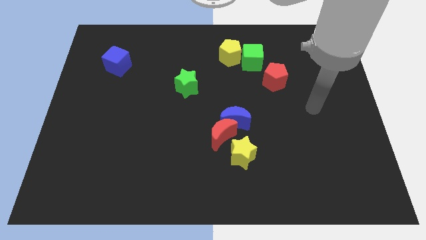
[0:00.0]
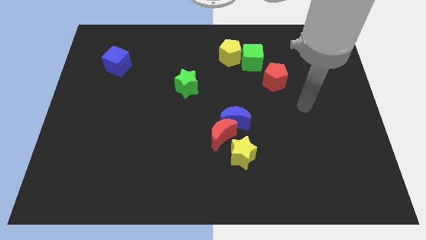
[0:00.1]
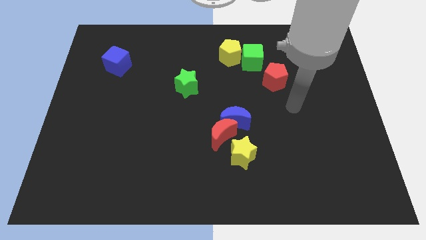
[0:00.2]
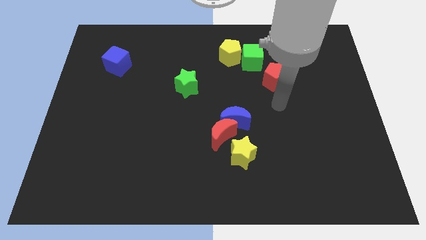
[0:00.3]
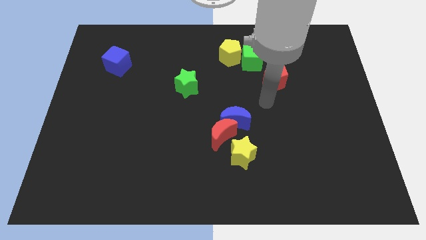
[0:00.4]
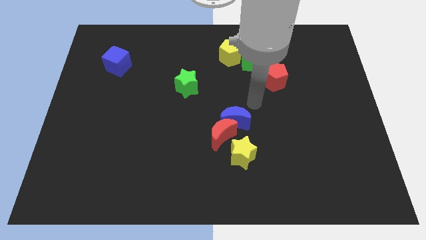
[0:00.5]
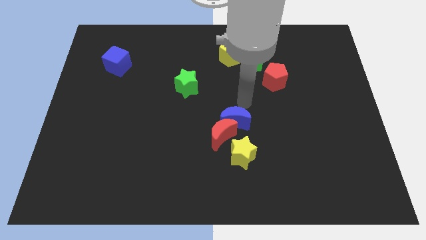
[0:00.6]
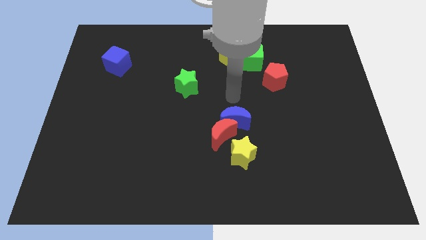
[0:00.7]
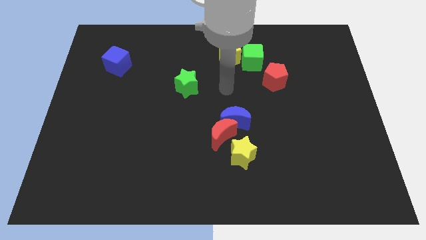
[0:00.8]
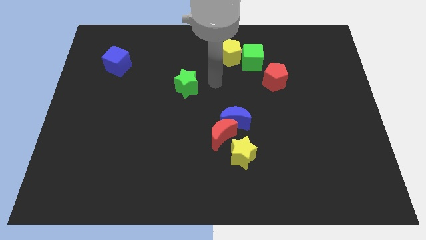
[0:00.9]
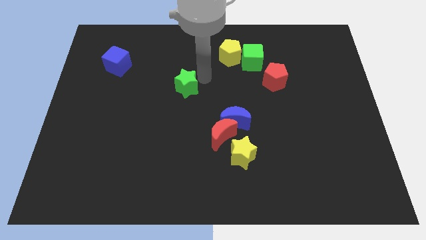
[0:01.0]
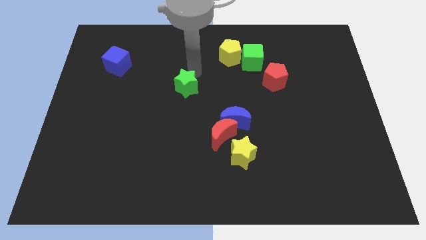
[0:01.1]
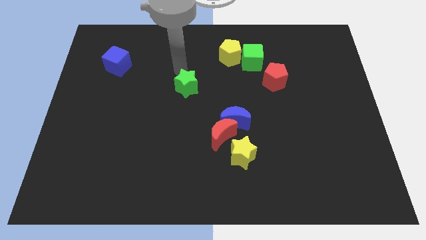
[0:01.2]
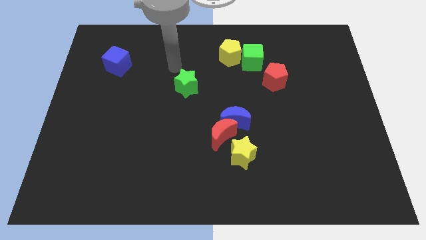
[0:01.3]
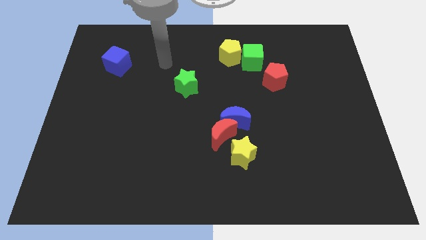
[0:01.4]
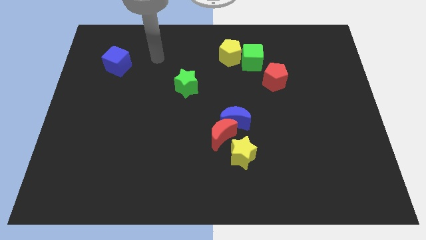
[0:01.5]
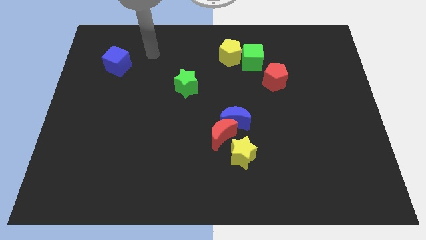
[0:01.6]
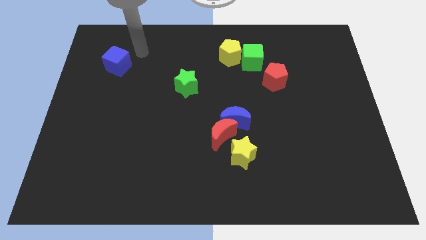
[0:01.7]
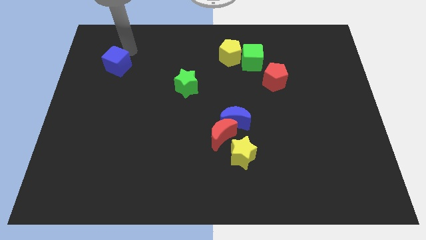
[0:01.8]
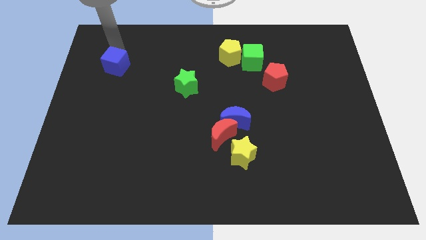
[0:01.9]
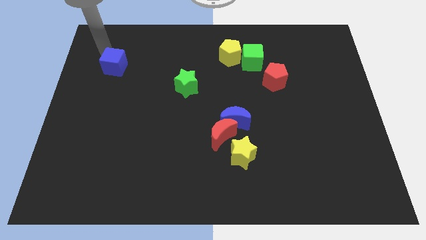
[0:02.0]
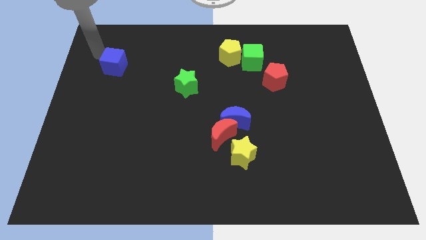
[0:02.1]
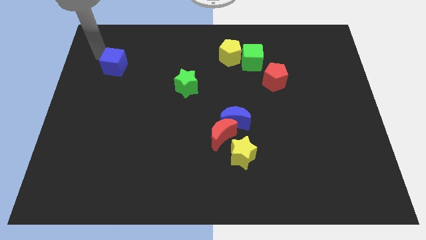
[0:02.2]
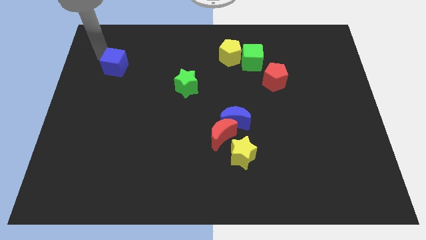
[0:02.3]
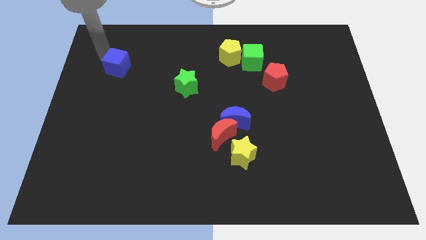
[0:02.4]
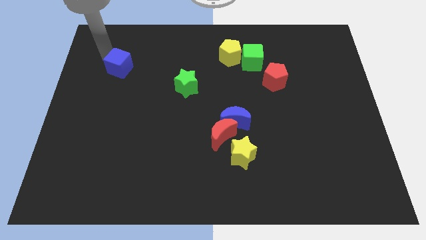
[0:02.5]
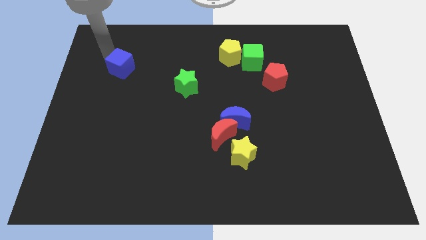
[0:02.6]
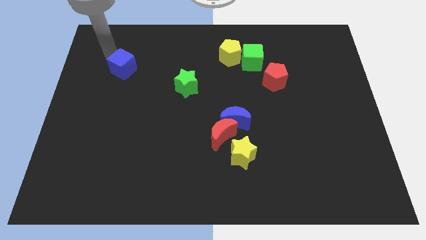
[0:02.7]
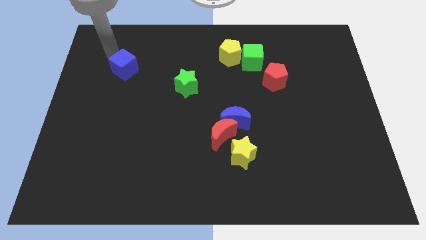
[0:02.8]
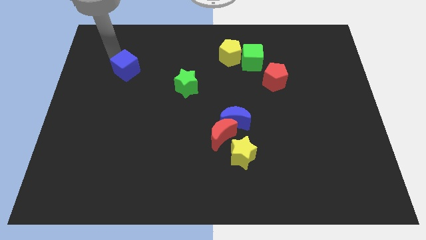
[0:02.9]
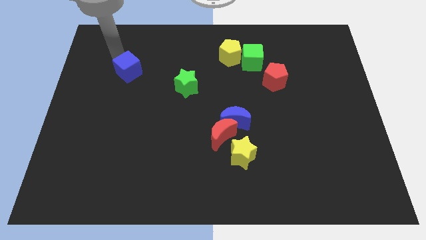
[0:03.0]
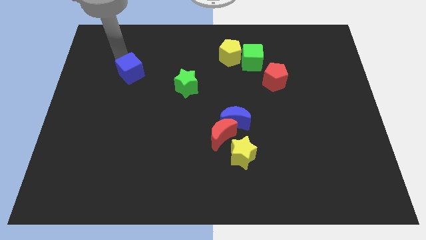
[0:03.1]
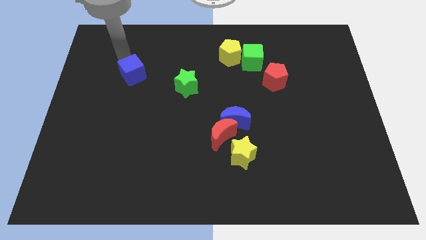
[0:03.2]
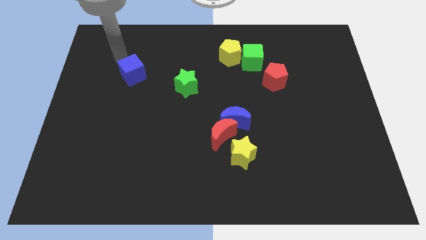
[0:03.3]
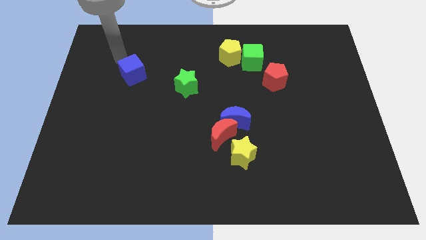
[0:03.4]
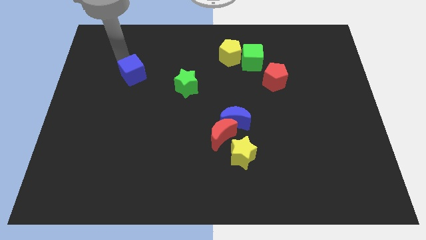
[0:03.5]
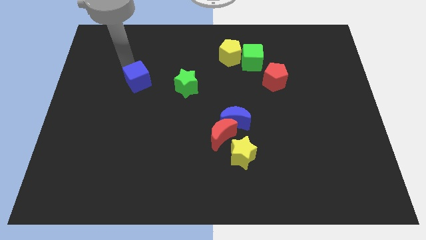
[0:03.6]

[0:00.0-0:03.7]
slightly slide the blue cube diagonally downwards and to the right

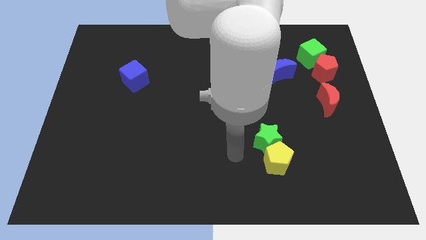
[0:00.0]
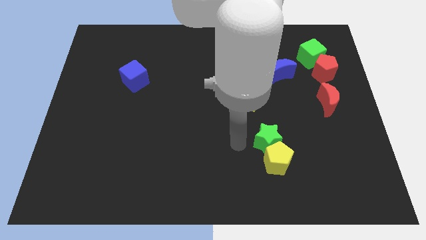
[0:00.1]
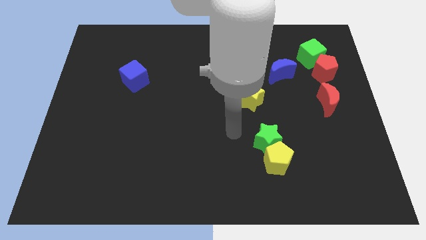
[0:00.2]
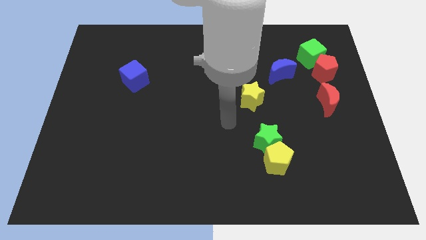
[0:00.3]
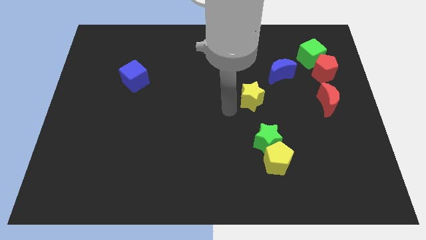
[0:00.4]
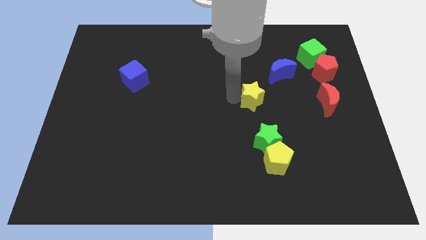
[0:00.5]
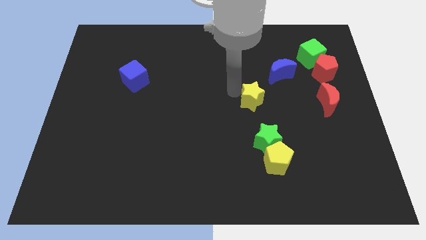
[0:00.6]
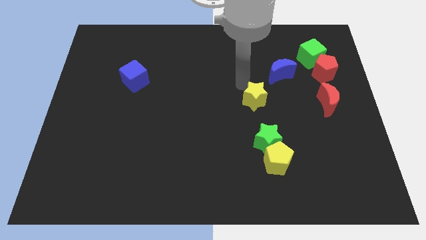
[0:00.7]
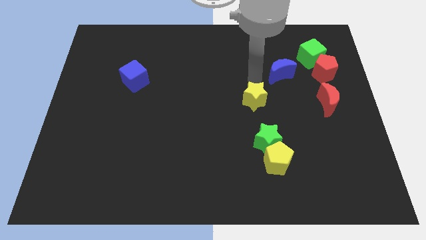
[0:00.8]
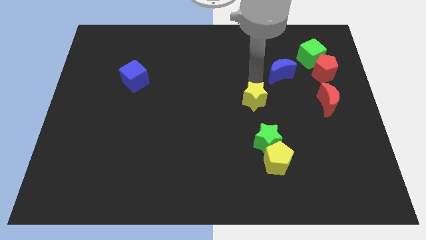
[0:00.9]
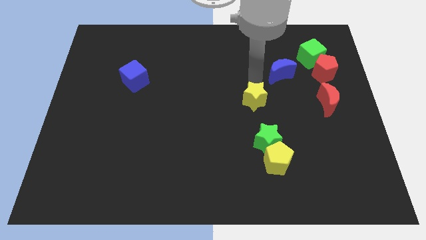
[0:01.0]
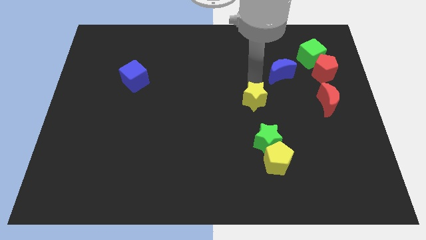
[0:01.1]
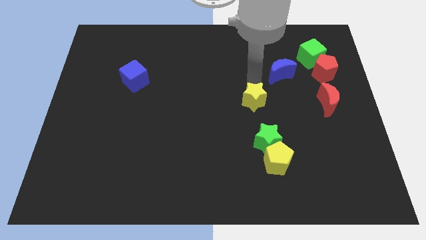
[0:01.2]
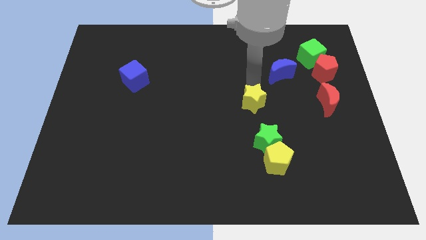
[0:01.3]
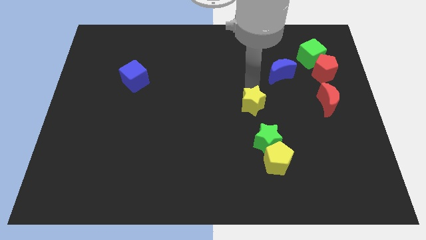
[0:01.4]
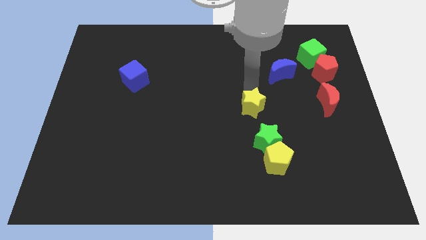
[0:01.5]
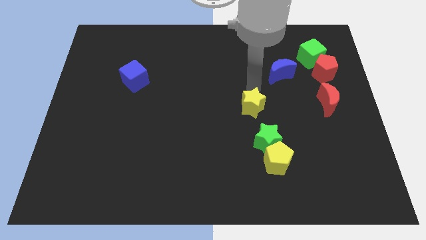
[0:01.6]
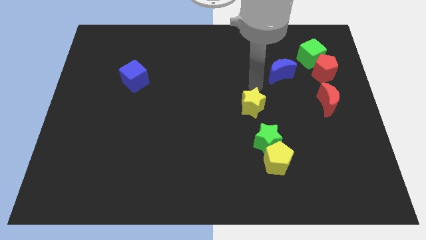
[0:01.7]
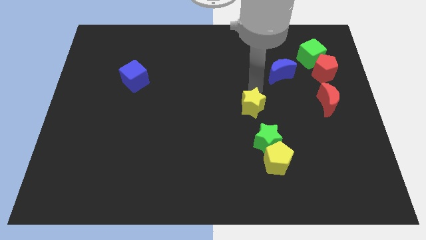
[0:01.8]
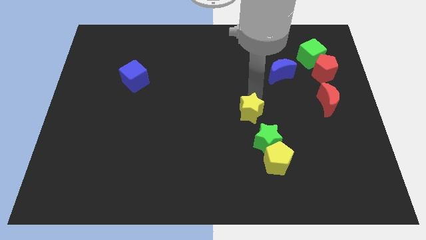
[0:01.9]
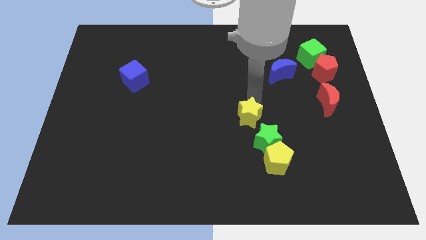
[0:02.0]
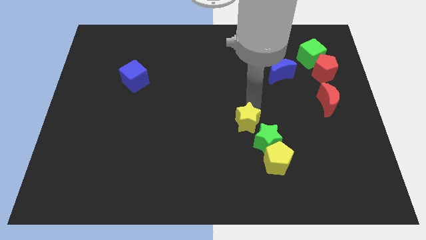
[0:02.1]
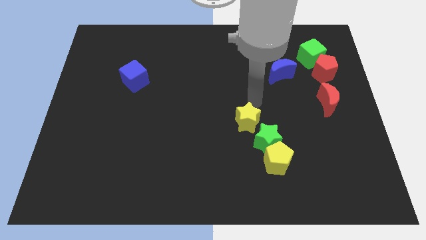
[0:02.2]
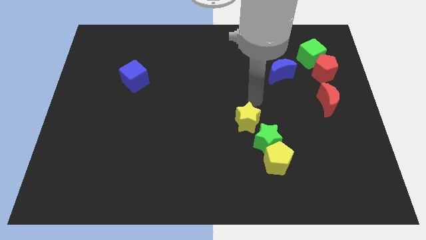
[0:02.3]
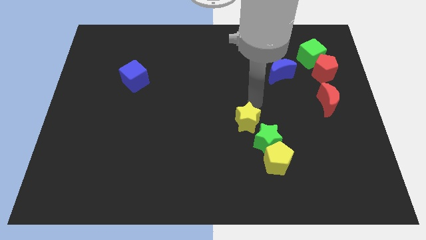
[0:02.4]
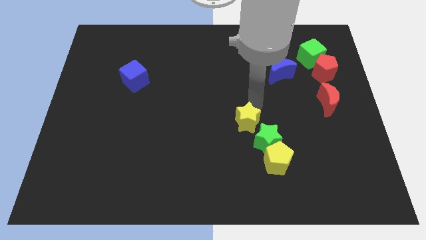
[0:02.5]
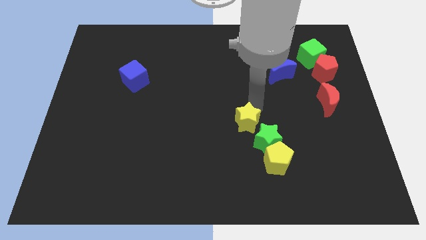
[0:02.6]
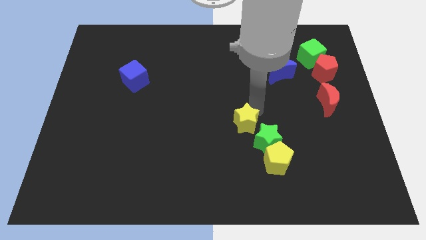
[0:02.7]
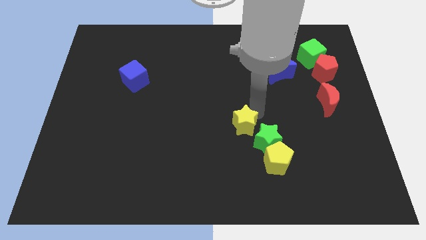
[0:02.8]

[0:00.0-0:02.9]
move the yellow star down somewhat

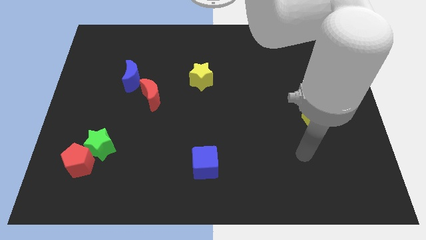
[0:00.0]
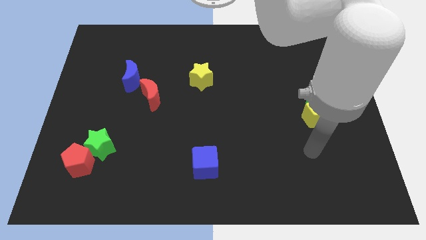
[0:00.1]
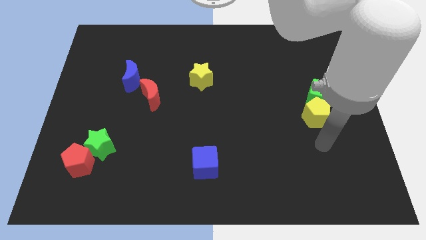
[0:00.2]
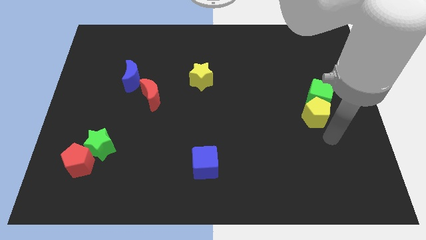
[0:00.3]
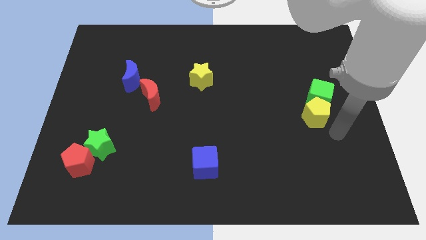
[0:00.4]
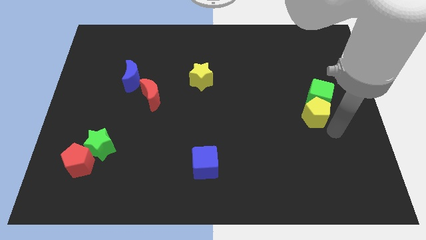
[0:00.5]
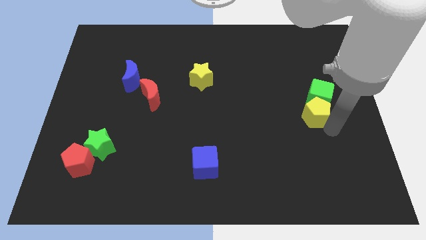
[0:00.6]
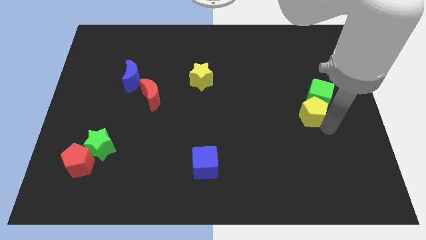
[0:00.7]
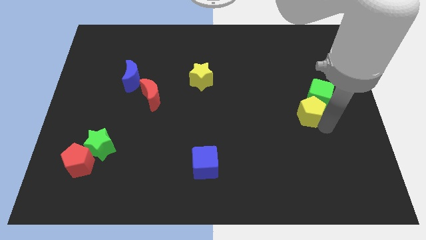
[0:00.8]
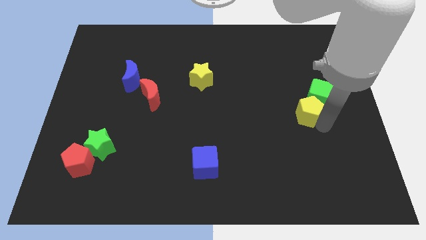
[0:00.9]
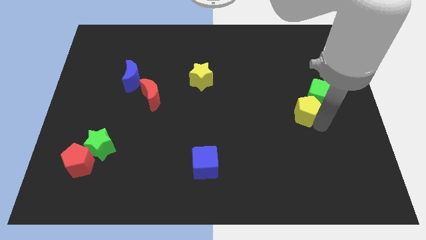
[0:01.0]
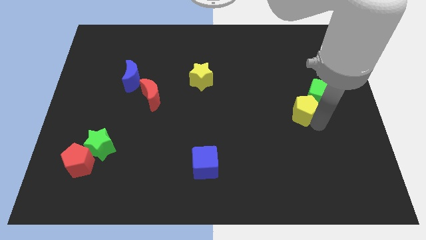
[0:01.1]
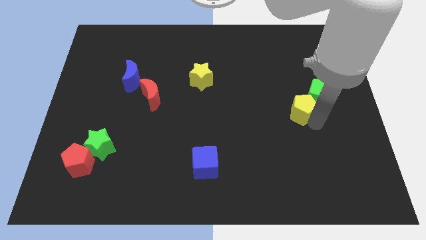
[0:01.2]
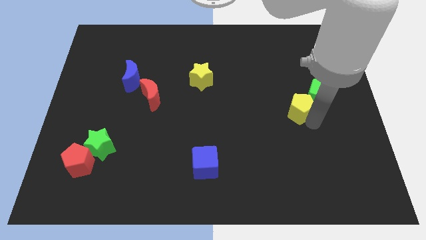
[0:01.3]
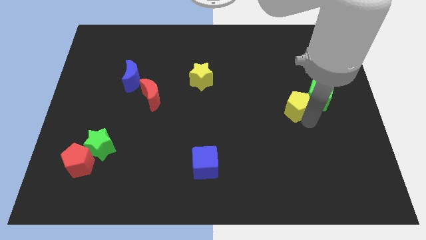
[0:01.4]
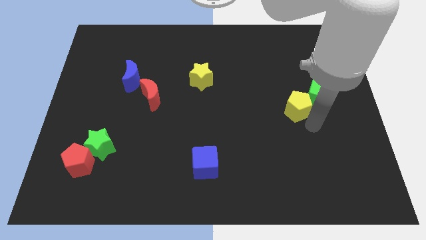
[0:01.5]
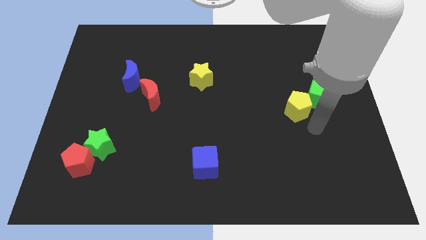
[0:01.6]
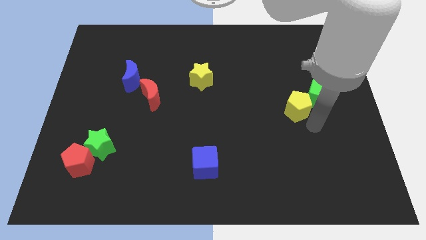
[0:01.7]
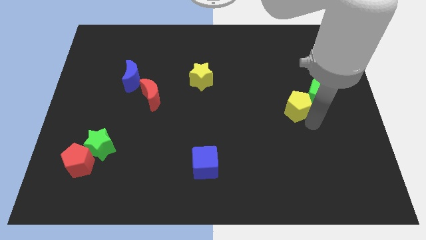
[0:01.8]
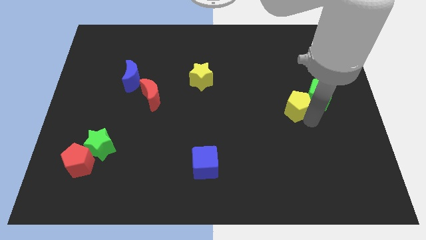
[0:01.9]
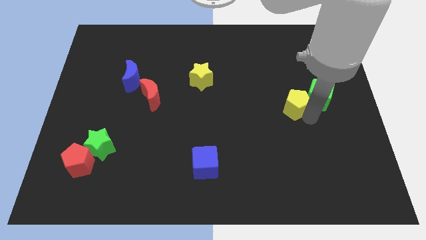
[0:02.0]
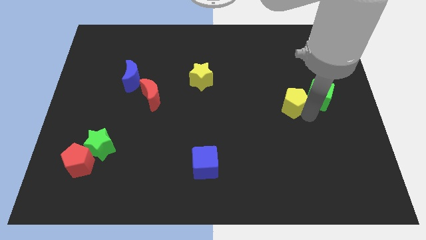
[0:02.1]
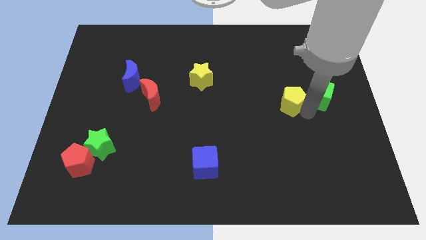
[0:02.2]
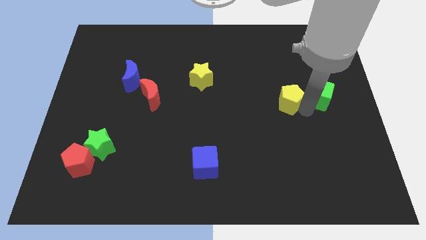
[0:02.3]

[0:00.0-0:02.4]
slide the yellow pentagon up and left diagonally slightly
